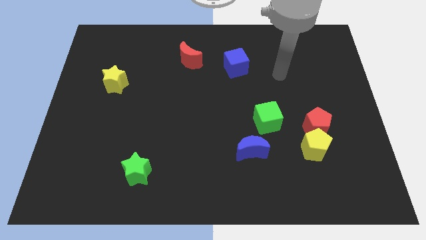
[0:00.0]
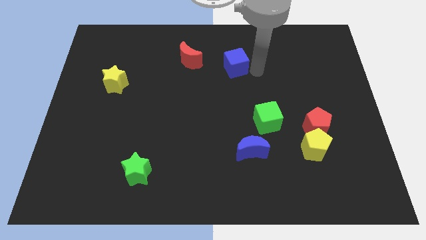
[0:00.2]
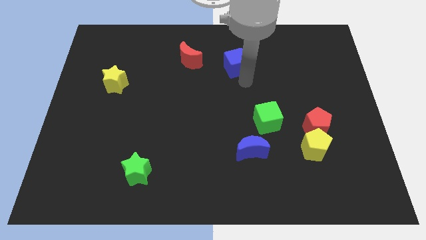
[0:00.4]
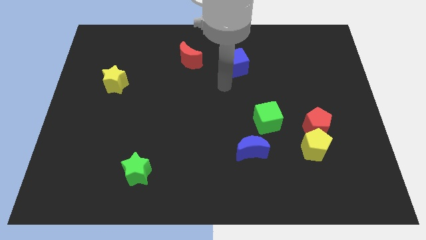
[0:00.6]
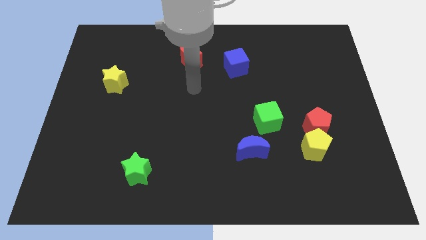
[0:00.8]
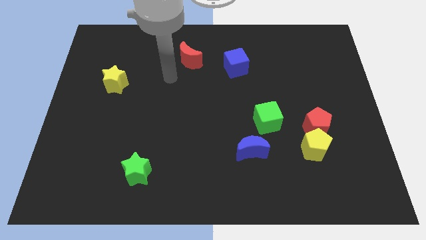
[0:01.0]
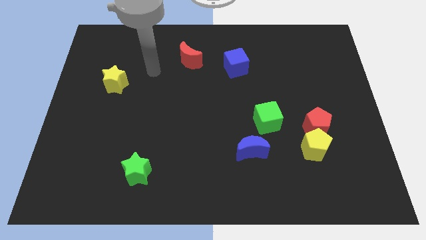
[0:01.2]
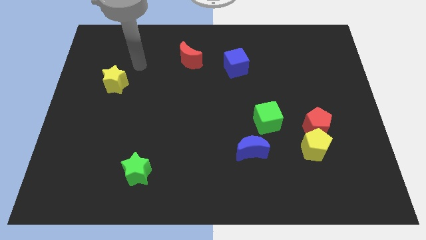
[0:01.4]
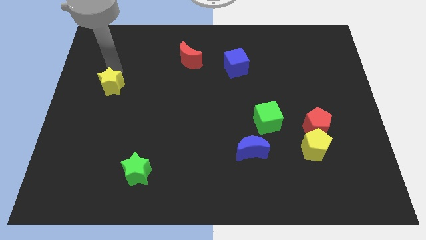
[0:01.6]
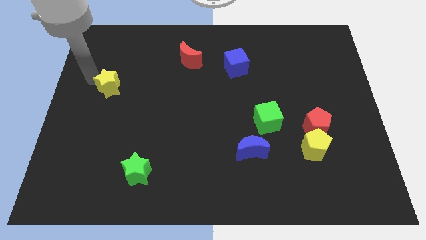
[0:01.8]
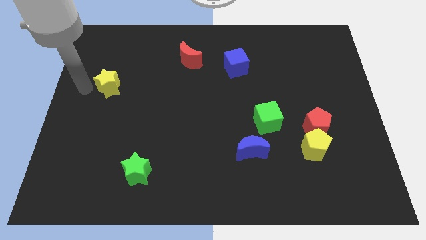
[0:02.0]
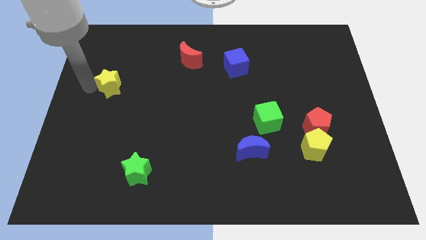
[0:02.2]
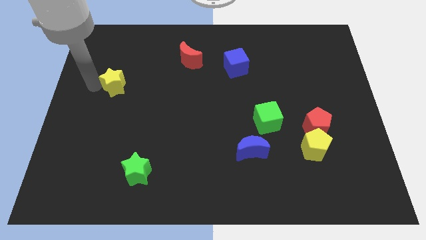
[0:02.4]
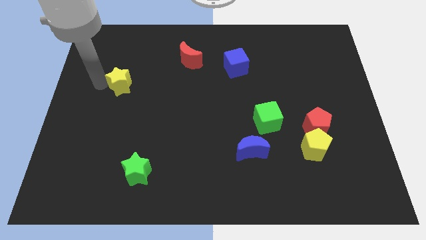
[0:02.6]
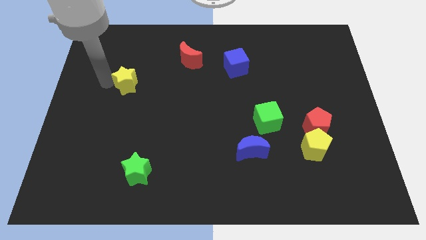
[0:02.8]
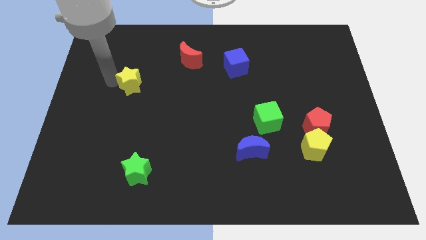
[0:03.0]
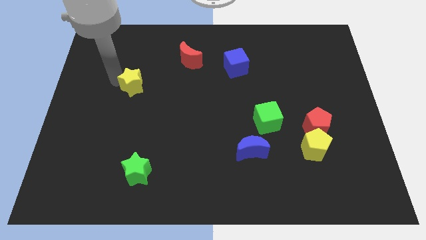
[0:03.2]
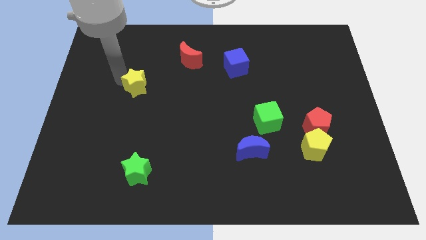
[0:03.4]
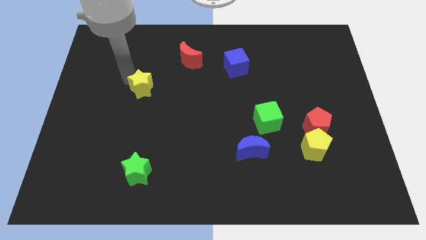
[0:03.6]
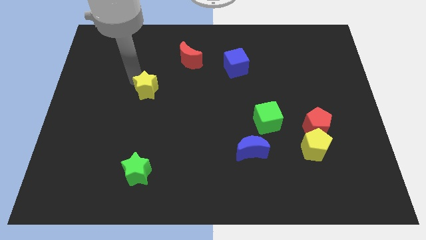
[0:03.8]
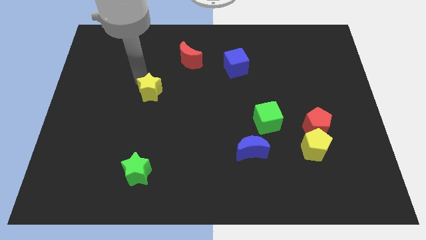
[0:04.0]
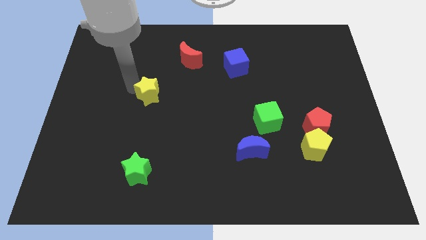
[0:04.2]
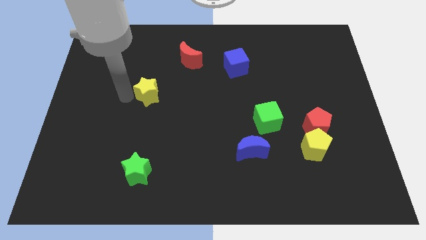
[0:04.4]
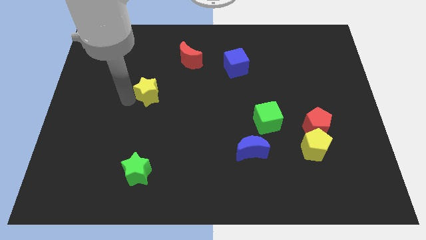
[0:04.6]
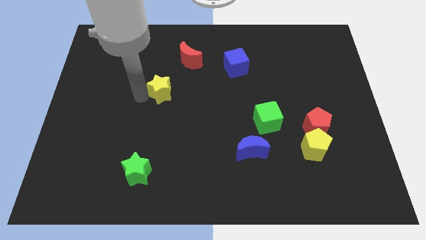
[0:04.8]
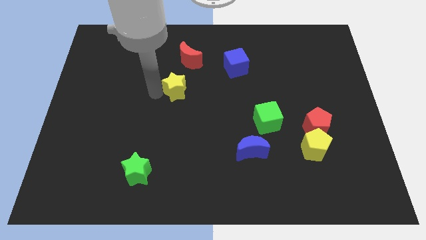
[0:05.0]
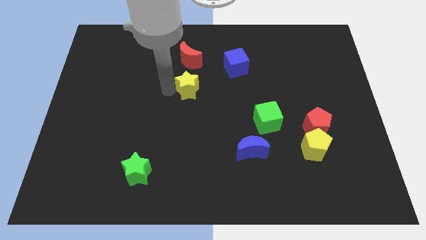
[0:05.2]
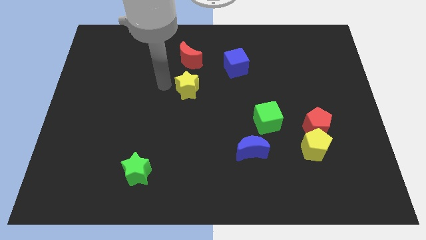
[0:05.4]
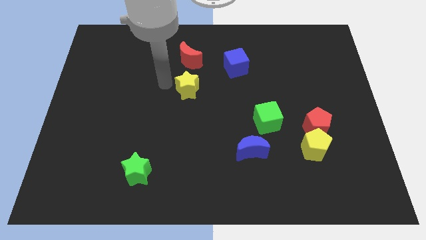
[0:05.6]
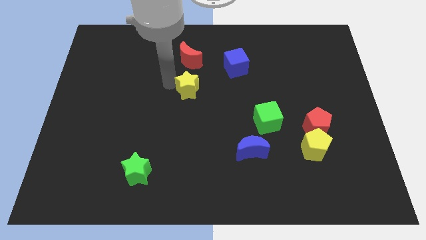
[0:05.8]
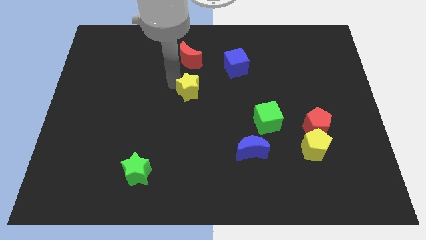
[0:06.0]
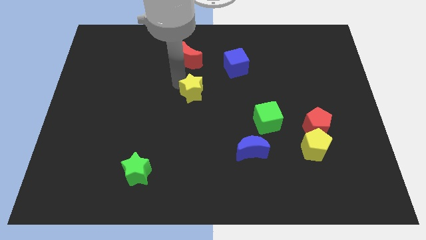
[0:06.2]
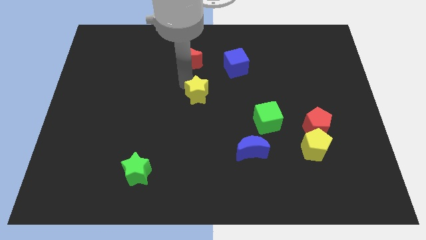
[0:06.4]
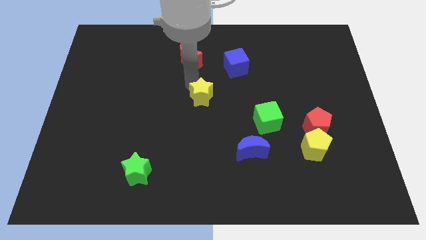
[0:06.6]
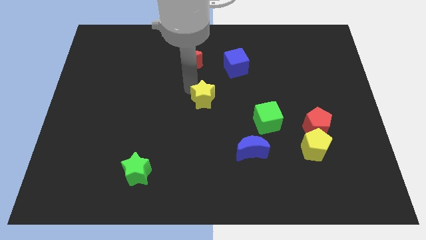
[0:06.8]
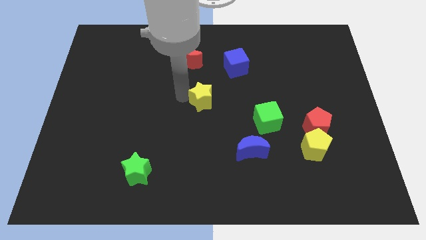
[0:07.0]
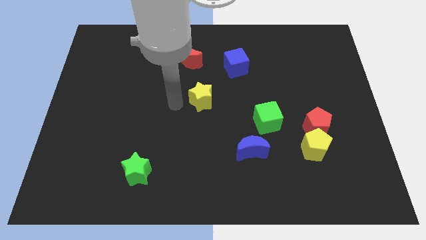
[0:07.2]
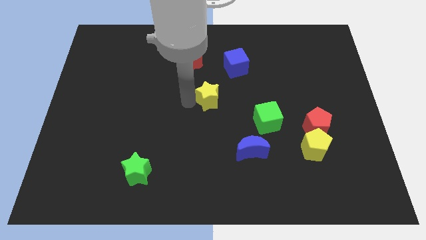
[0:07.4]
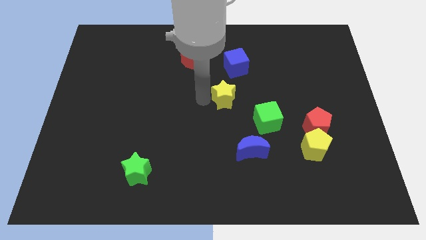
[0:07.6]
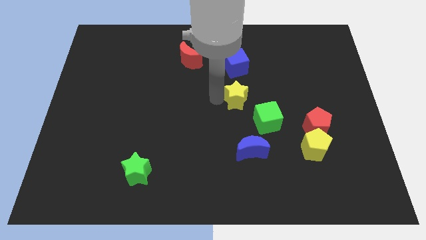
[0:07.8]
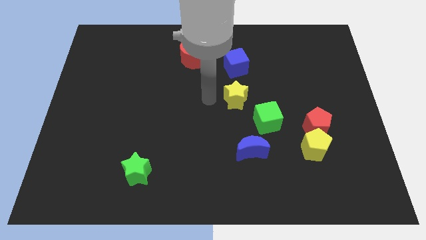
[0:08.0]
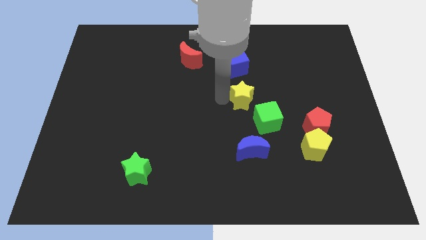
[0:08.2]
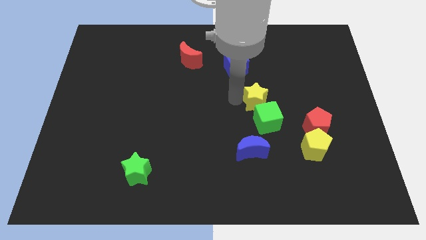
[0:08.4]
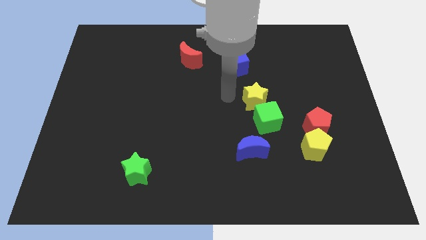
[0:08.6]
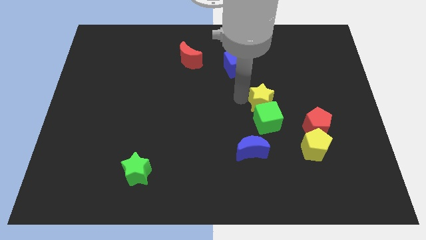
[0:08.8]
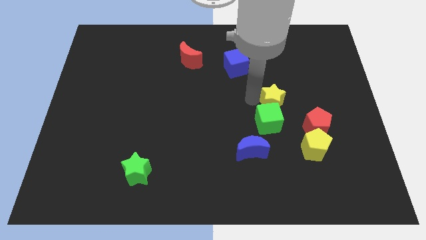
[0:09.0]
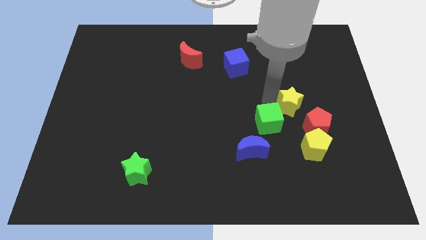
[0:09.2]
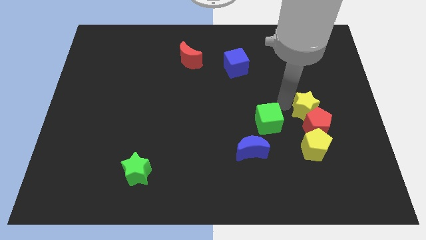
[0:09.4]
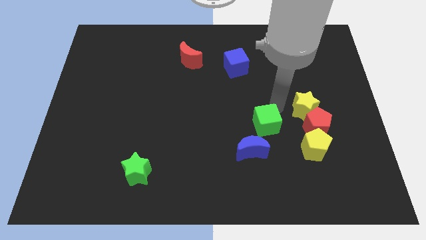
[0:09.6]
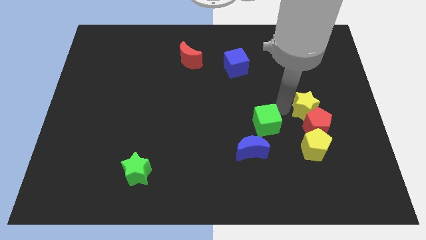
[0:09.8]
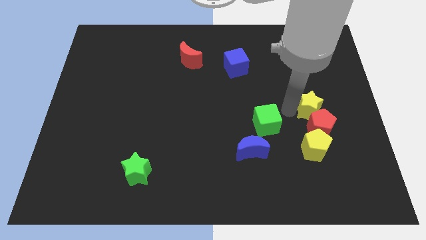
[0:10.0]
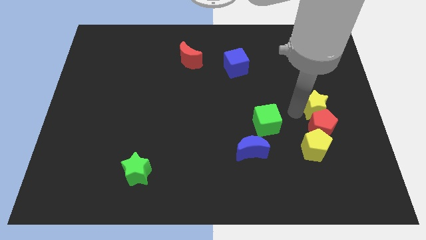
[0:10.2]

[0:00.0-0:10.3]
slide the yellow star to the top right of the red pentagon

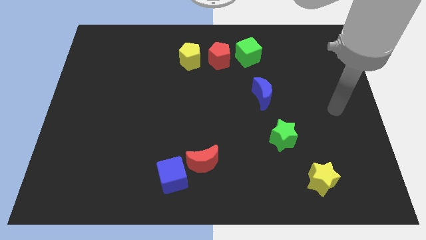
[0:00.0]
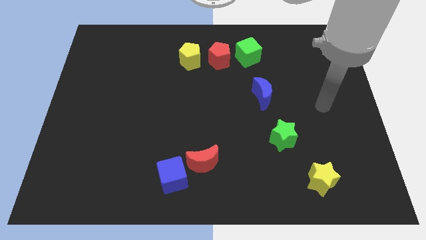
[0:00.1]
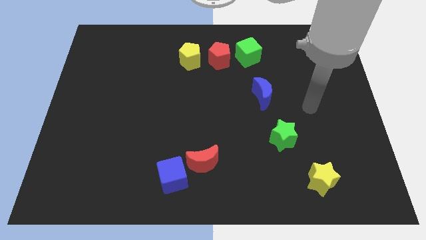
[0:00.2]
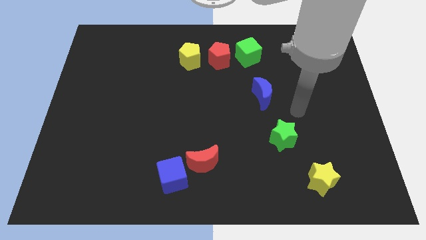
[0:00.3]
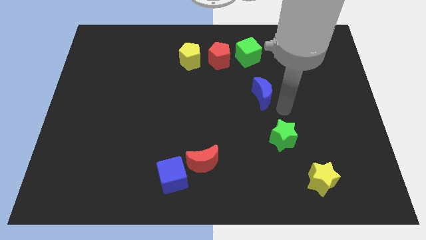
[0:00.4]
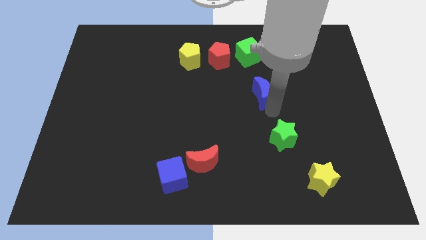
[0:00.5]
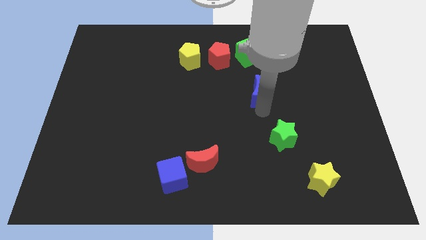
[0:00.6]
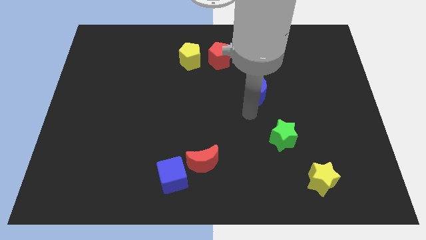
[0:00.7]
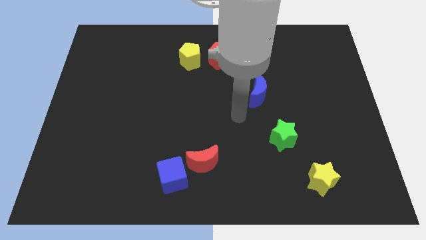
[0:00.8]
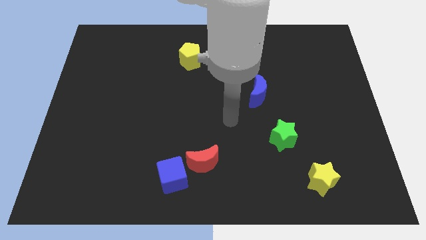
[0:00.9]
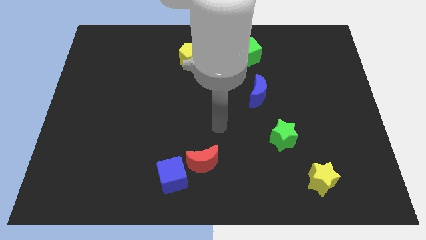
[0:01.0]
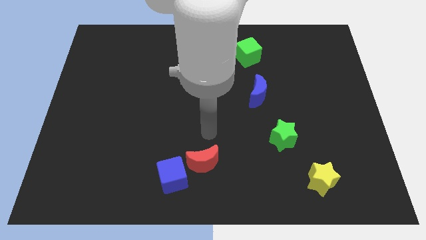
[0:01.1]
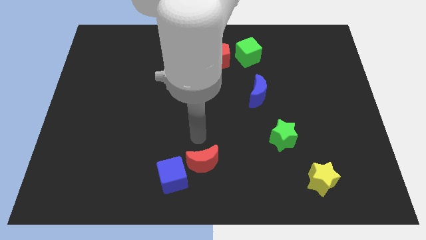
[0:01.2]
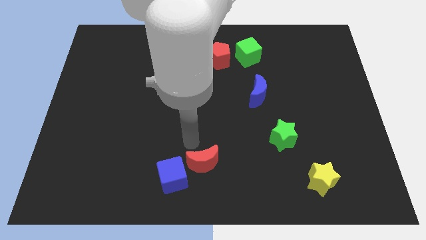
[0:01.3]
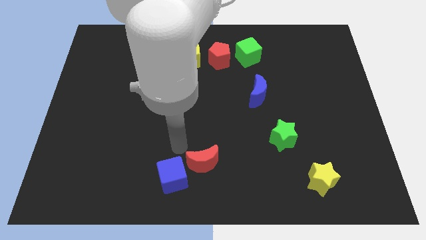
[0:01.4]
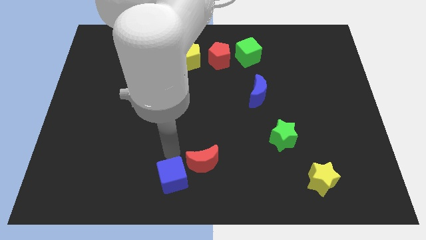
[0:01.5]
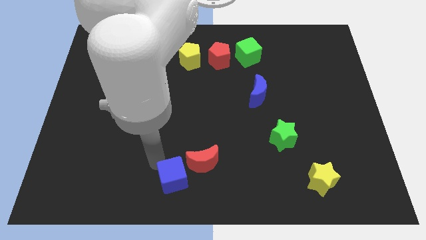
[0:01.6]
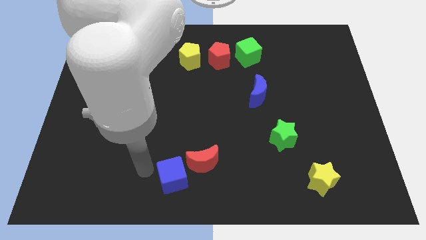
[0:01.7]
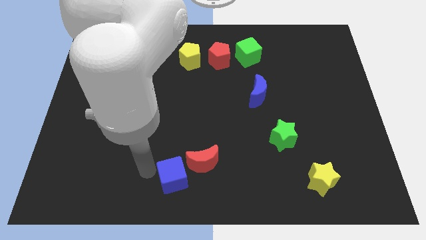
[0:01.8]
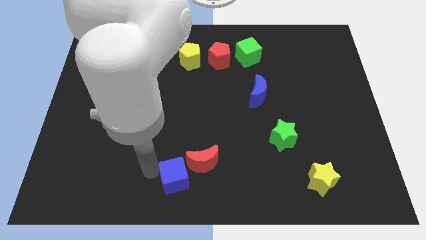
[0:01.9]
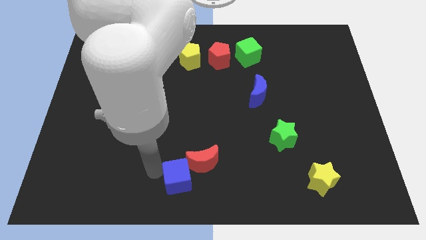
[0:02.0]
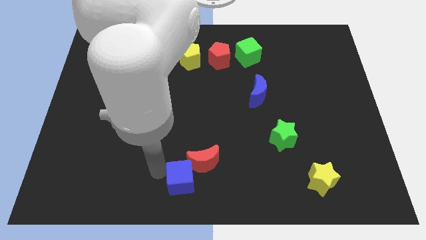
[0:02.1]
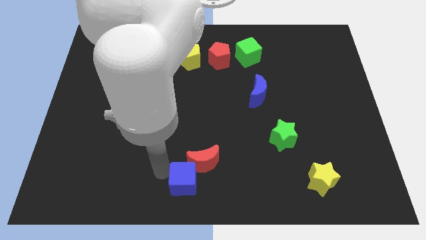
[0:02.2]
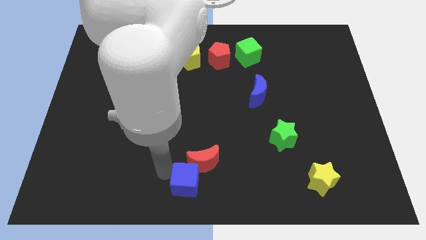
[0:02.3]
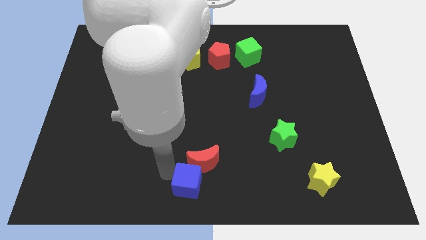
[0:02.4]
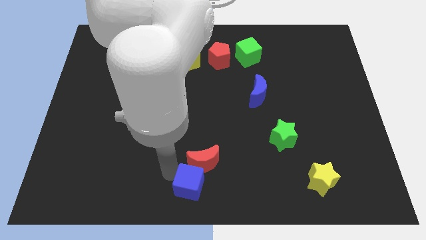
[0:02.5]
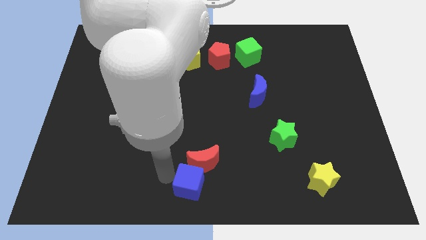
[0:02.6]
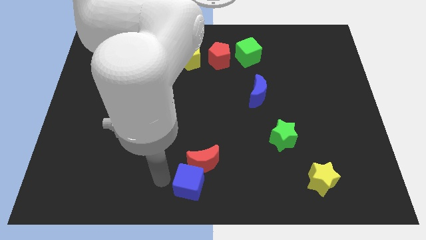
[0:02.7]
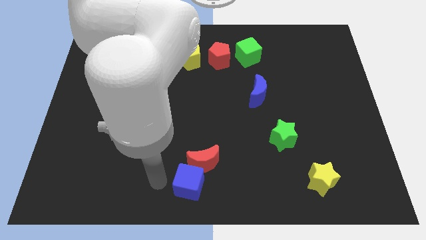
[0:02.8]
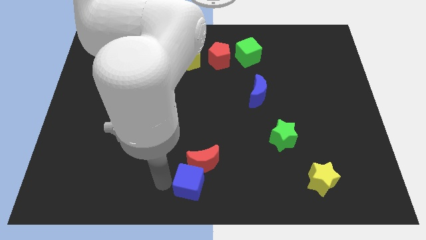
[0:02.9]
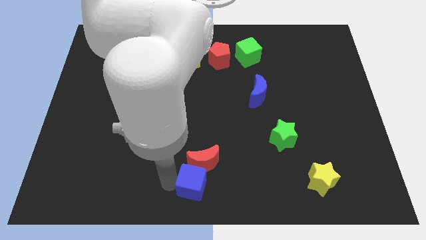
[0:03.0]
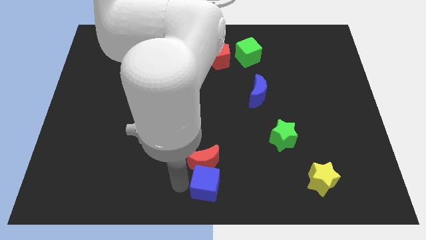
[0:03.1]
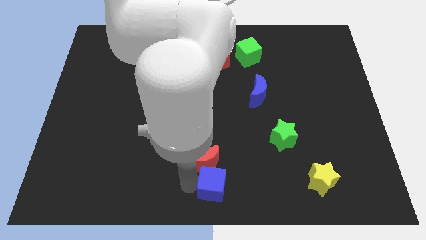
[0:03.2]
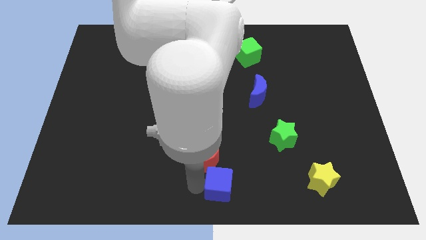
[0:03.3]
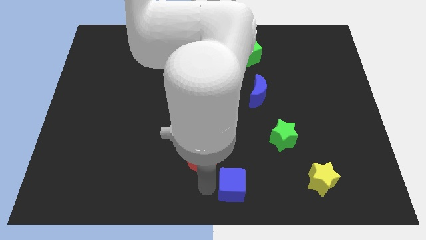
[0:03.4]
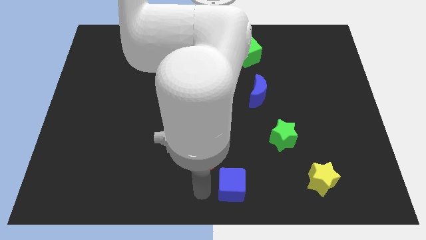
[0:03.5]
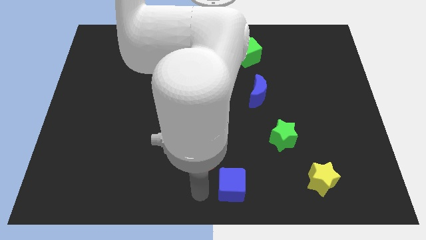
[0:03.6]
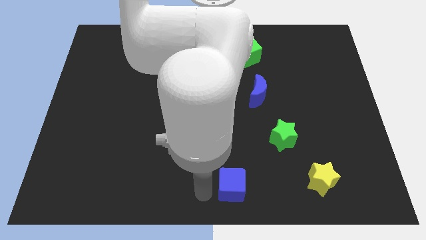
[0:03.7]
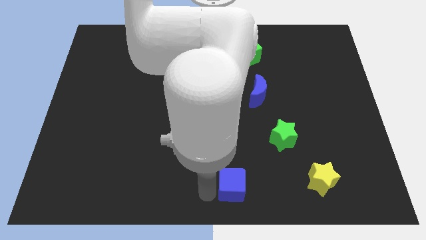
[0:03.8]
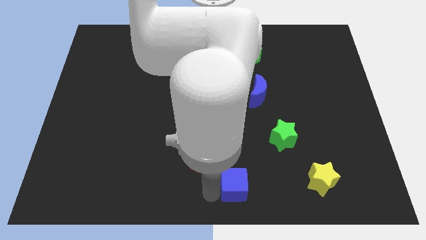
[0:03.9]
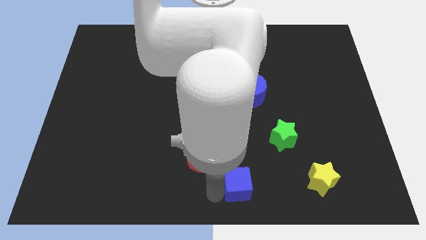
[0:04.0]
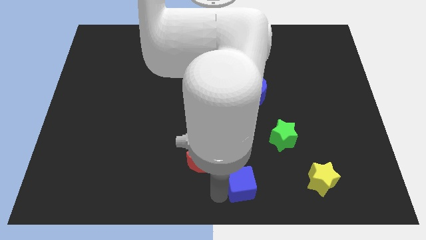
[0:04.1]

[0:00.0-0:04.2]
move the blue cube left of the yellow star
